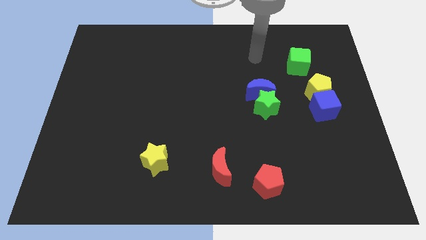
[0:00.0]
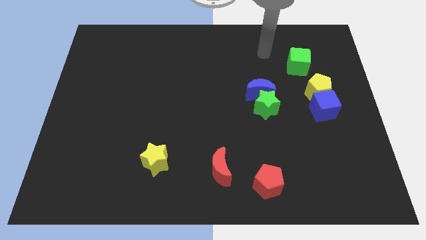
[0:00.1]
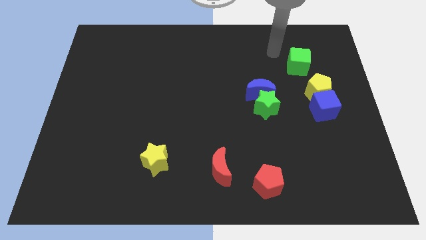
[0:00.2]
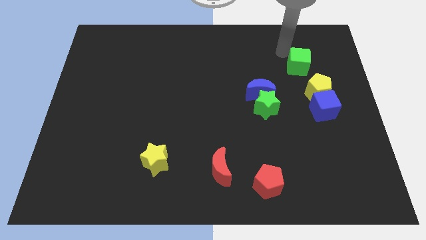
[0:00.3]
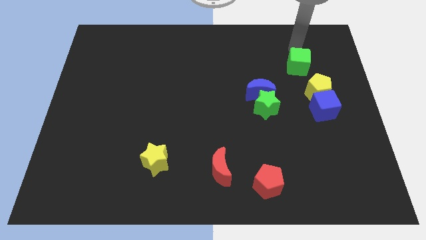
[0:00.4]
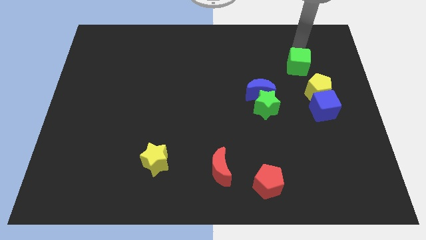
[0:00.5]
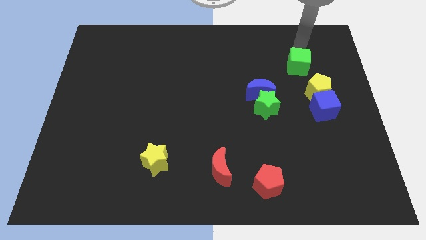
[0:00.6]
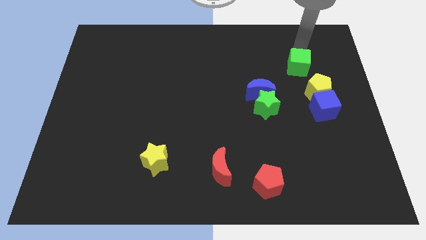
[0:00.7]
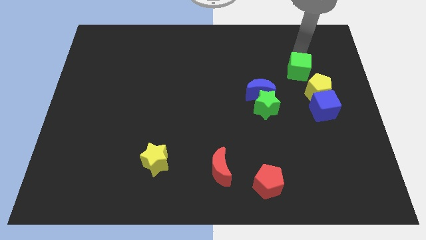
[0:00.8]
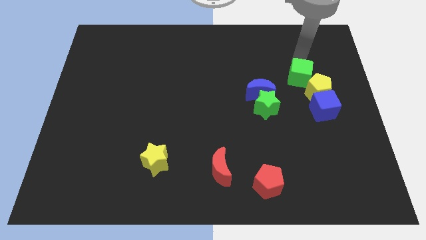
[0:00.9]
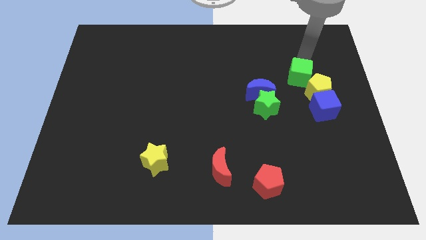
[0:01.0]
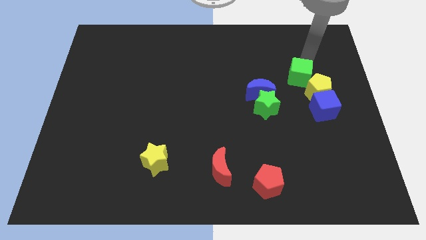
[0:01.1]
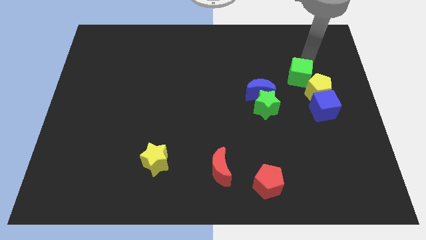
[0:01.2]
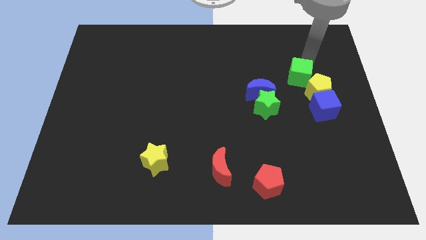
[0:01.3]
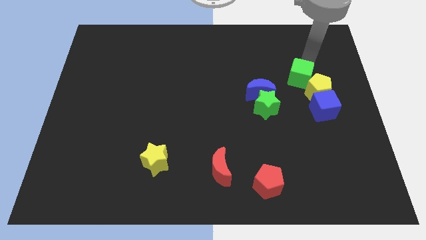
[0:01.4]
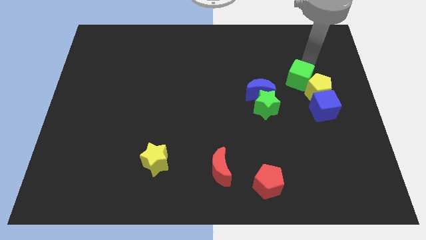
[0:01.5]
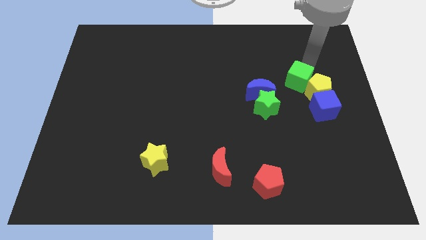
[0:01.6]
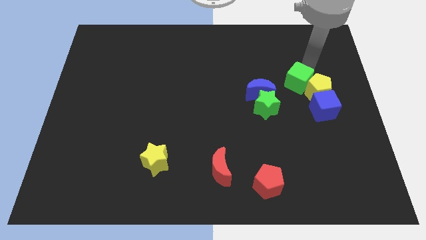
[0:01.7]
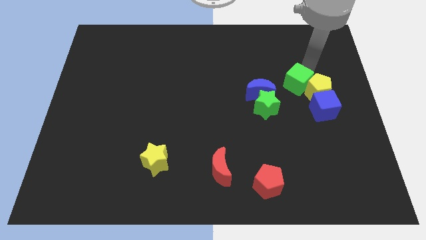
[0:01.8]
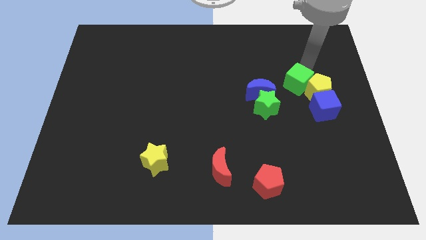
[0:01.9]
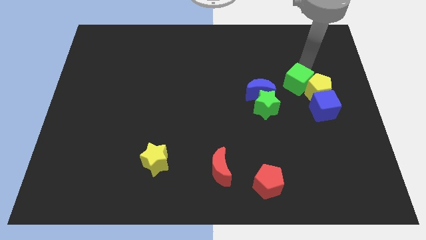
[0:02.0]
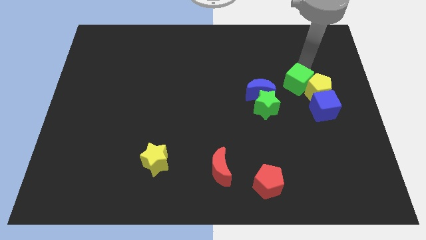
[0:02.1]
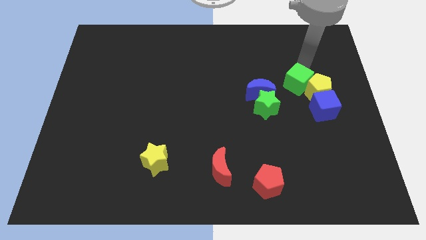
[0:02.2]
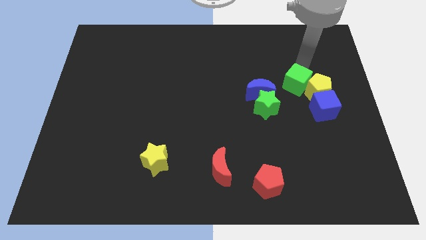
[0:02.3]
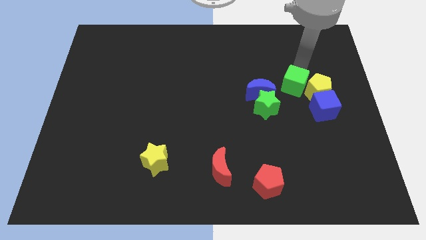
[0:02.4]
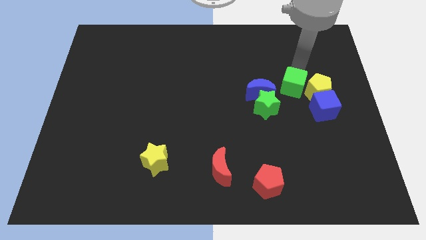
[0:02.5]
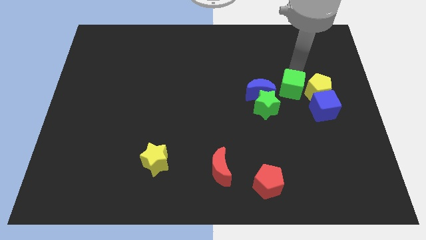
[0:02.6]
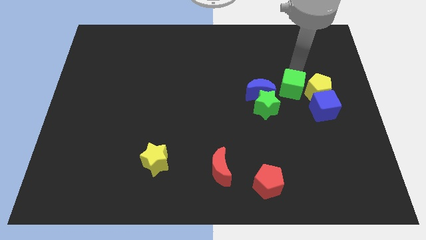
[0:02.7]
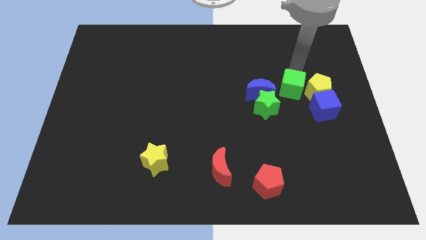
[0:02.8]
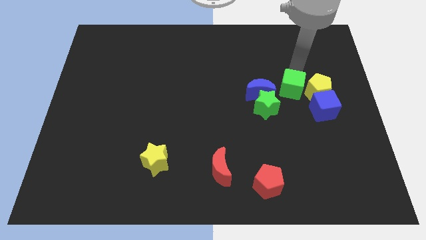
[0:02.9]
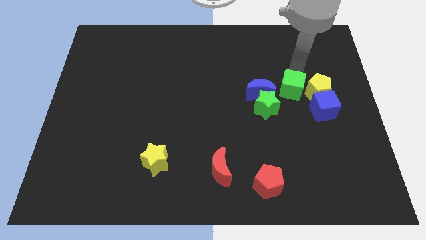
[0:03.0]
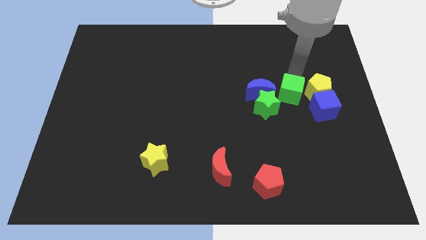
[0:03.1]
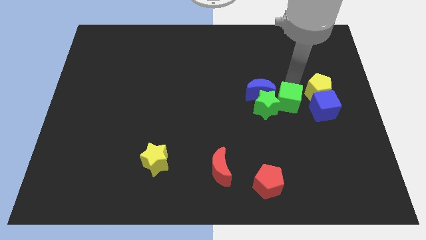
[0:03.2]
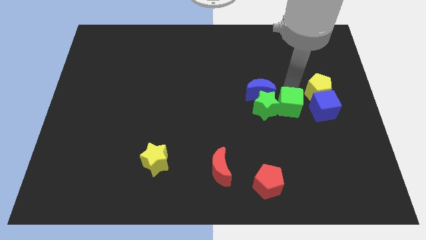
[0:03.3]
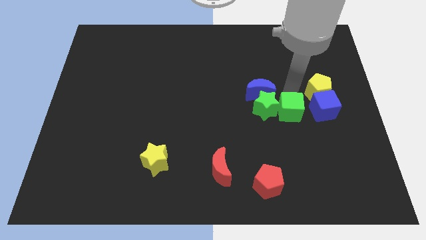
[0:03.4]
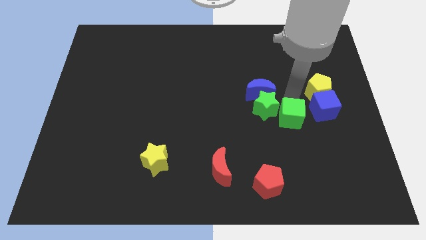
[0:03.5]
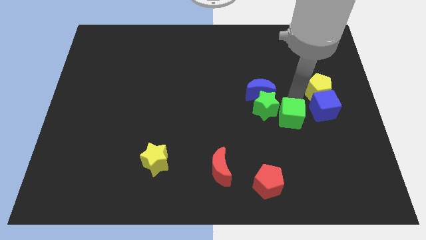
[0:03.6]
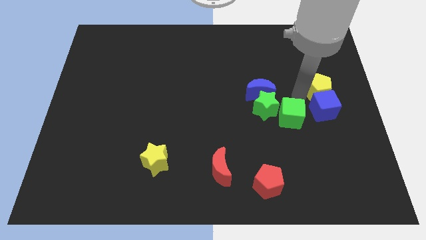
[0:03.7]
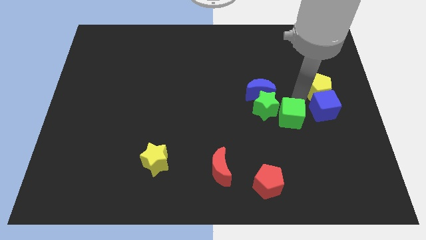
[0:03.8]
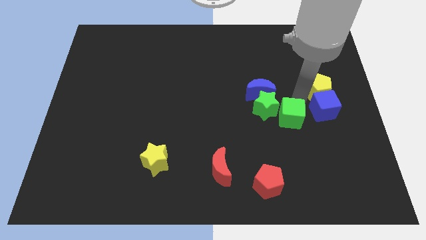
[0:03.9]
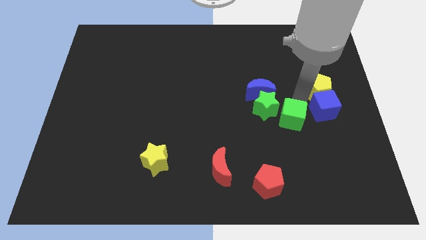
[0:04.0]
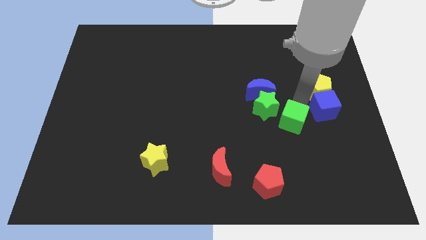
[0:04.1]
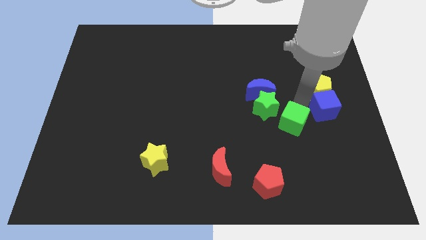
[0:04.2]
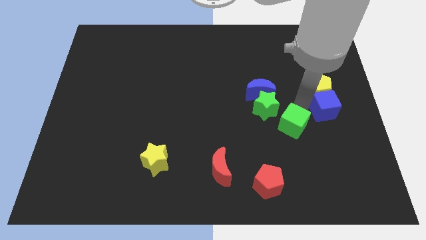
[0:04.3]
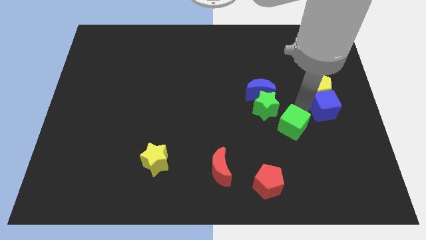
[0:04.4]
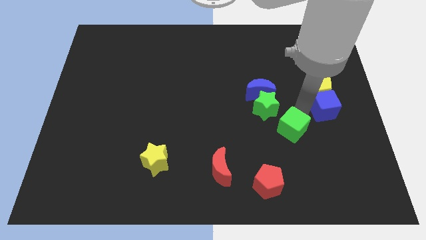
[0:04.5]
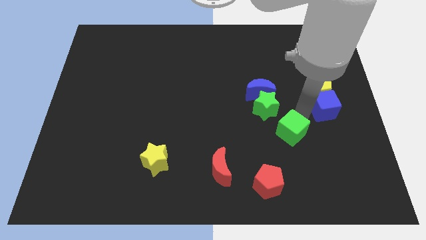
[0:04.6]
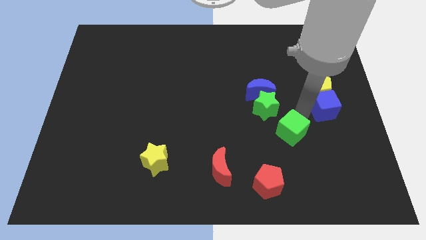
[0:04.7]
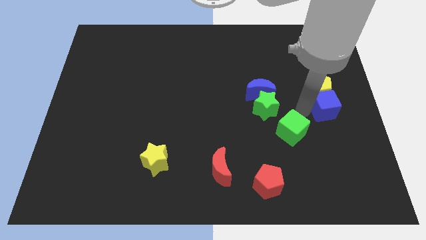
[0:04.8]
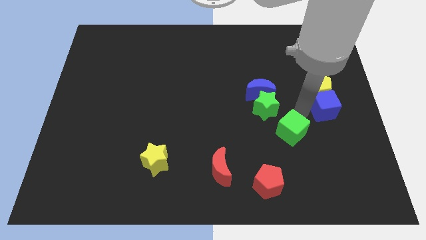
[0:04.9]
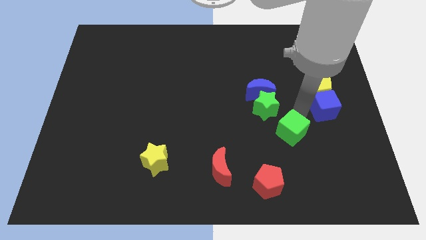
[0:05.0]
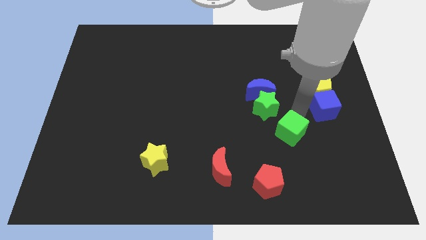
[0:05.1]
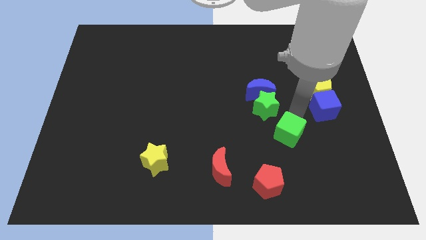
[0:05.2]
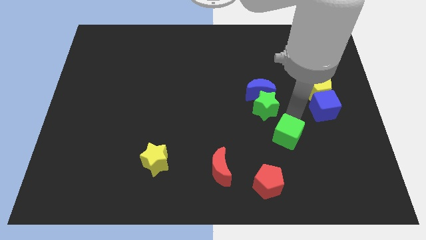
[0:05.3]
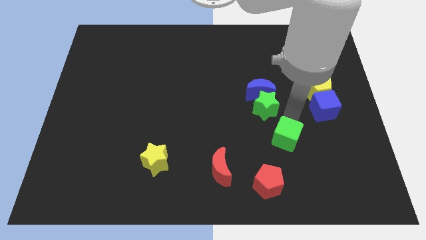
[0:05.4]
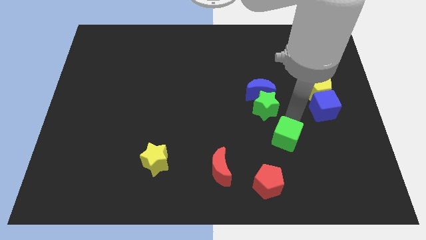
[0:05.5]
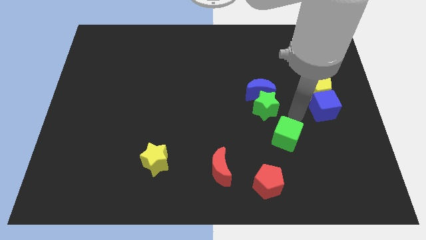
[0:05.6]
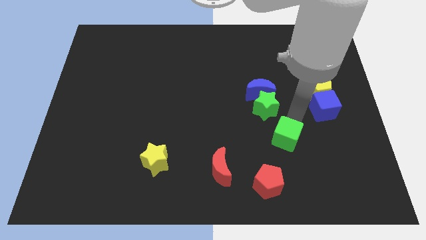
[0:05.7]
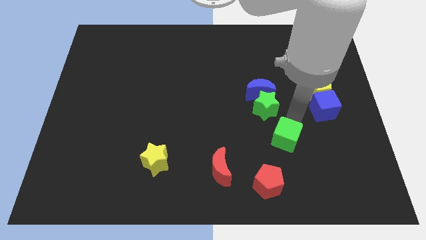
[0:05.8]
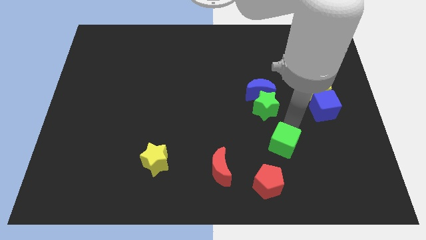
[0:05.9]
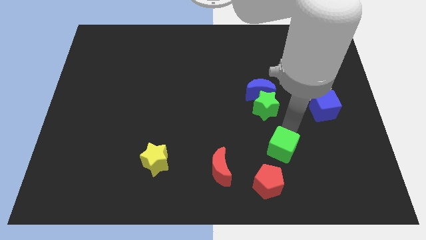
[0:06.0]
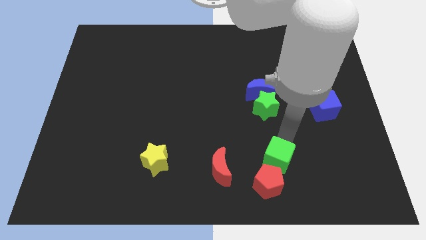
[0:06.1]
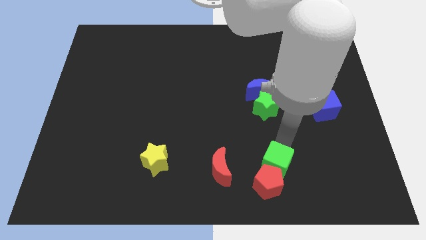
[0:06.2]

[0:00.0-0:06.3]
move the green cube to the red pentagon
